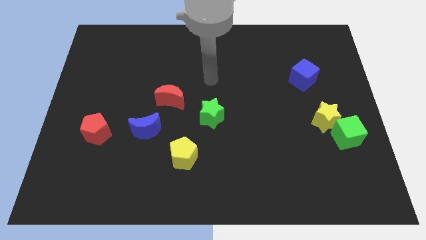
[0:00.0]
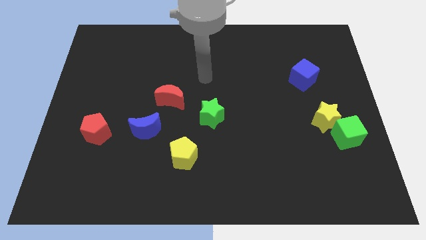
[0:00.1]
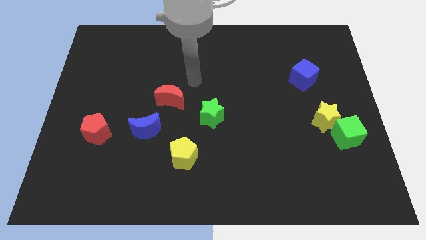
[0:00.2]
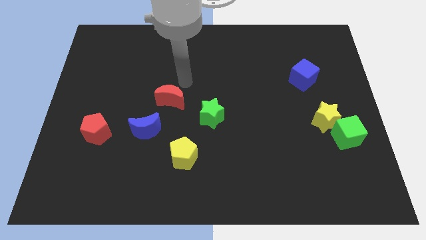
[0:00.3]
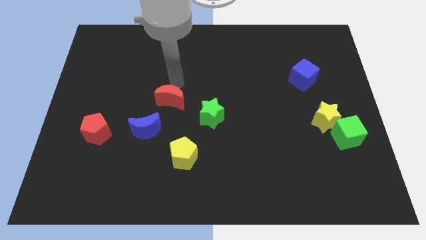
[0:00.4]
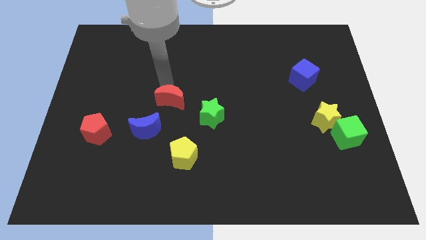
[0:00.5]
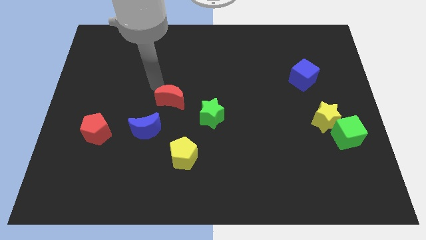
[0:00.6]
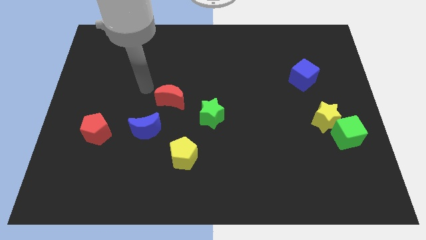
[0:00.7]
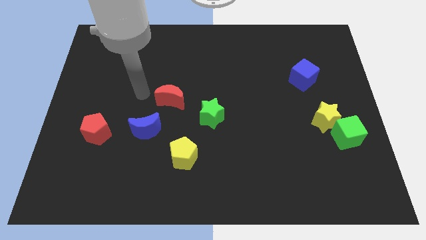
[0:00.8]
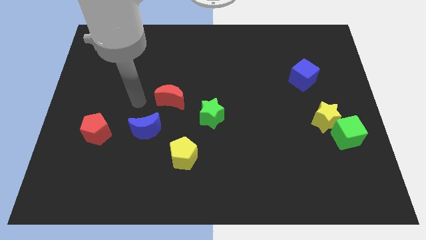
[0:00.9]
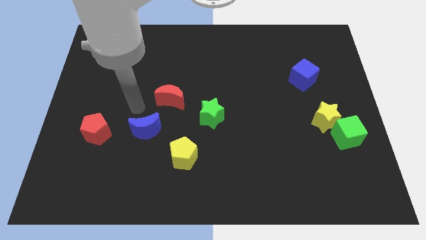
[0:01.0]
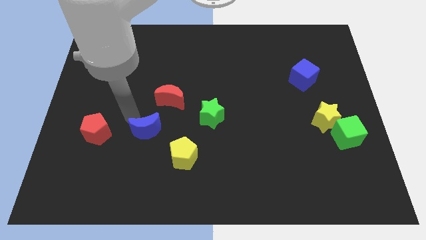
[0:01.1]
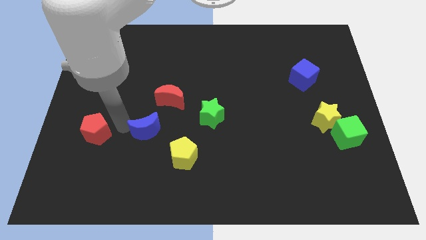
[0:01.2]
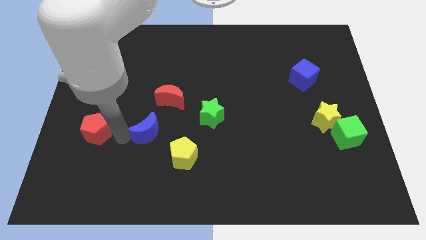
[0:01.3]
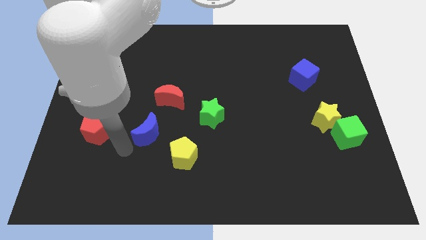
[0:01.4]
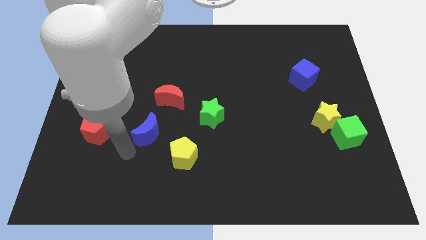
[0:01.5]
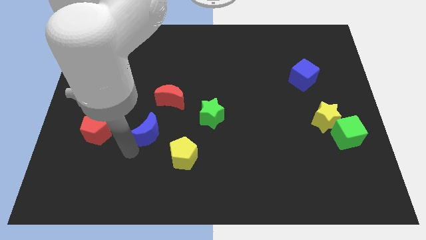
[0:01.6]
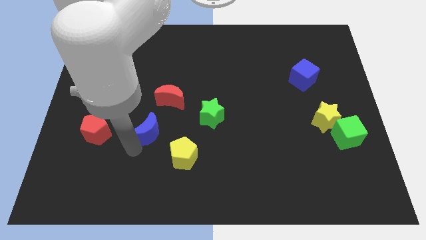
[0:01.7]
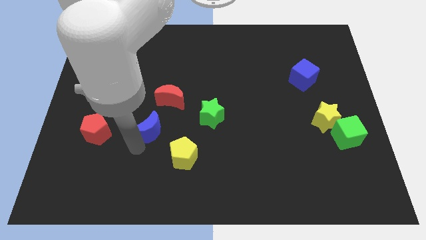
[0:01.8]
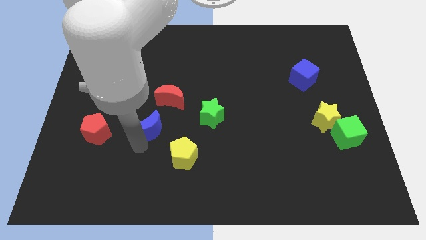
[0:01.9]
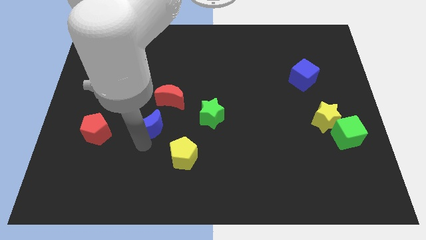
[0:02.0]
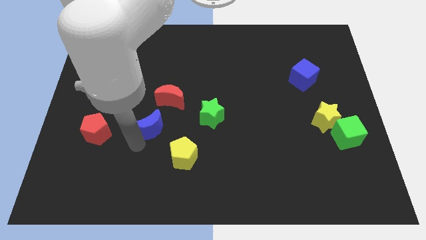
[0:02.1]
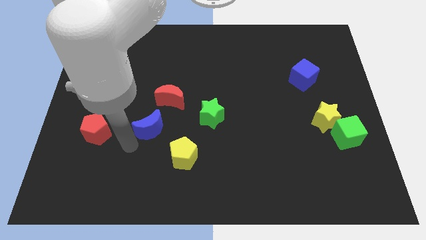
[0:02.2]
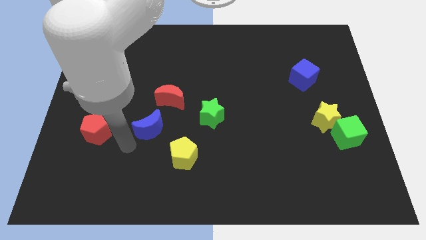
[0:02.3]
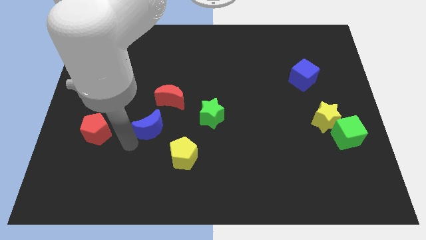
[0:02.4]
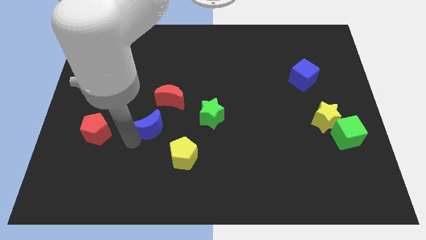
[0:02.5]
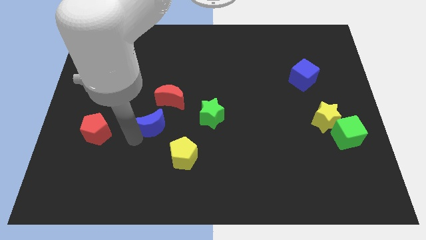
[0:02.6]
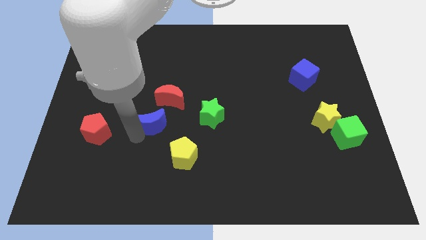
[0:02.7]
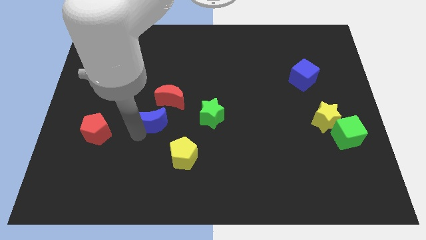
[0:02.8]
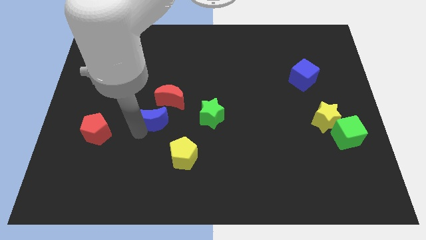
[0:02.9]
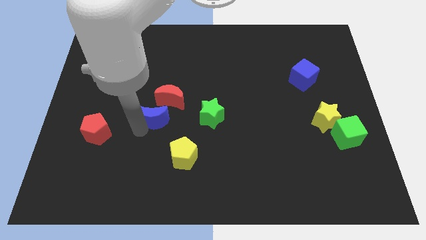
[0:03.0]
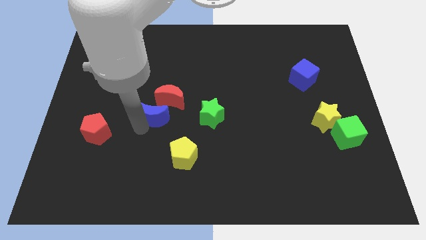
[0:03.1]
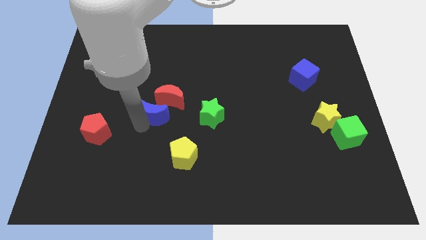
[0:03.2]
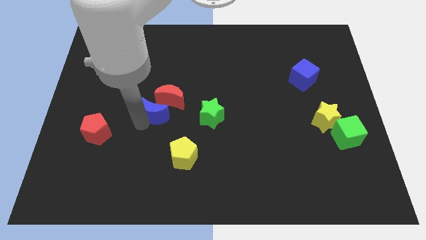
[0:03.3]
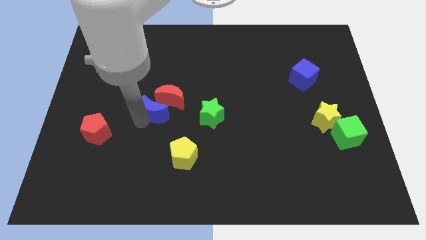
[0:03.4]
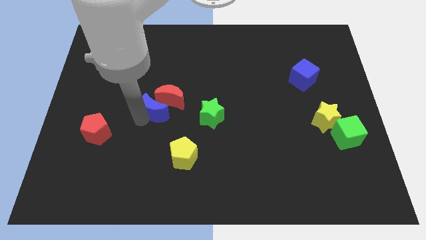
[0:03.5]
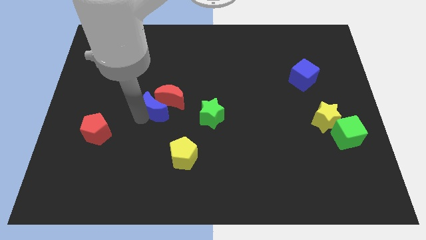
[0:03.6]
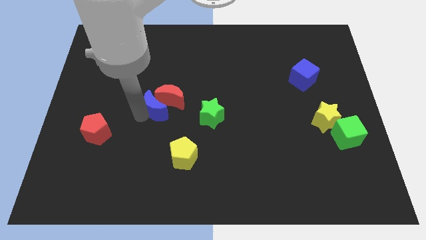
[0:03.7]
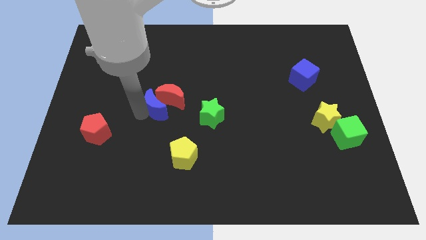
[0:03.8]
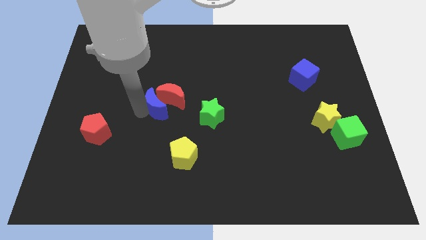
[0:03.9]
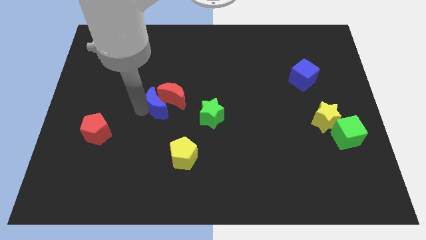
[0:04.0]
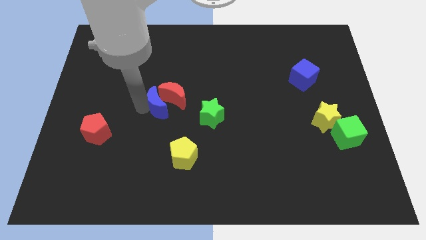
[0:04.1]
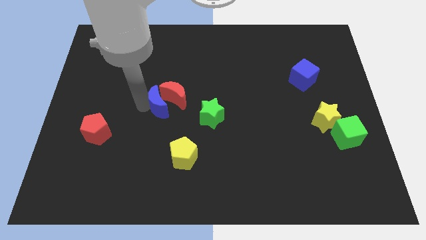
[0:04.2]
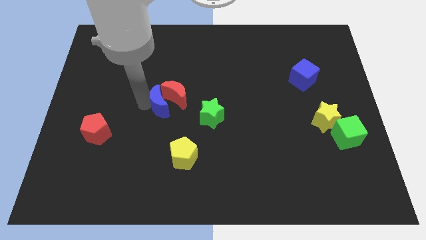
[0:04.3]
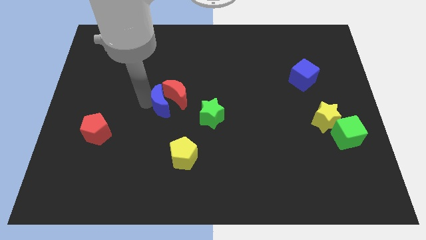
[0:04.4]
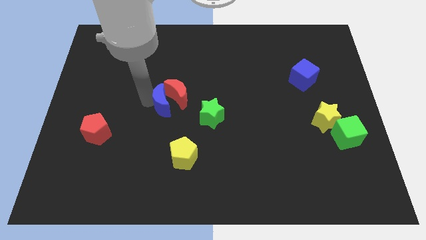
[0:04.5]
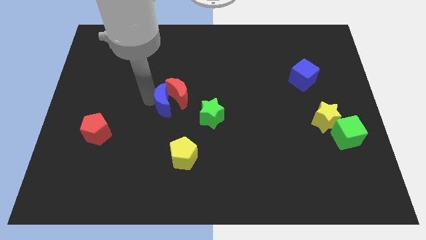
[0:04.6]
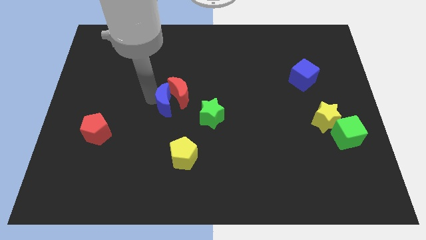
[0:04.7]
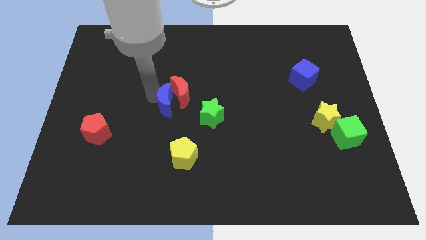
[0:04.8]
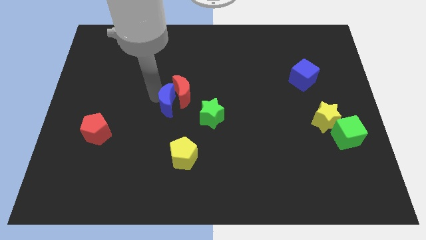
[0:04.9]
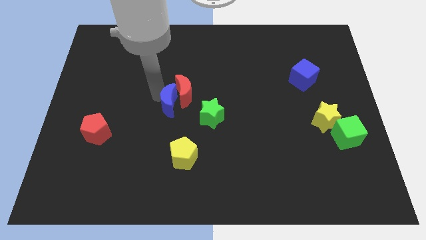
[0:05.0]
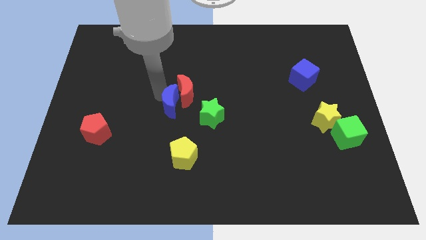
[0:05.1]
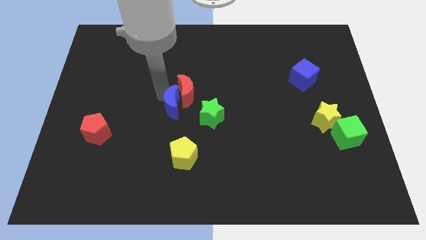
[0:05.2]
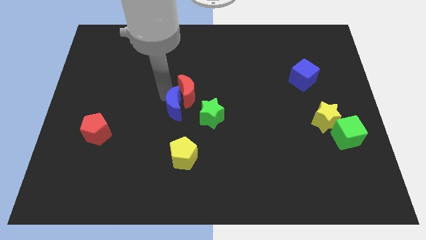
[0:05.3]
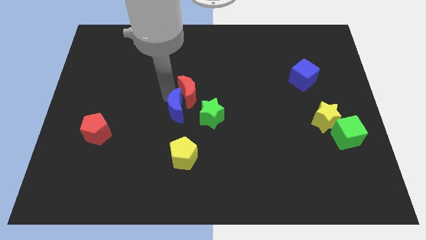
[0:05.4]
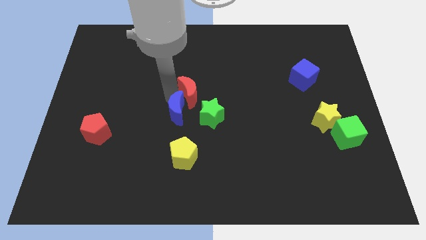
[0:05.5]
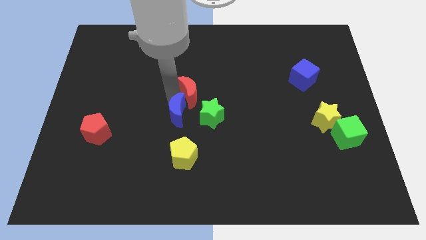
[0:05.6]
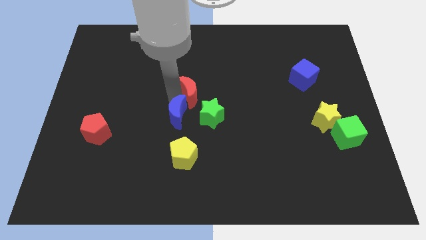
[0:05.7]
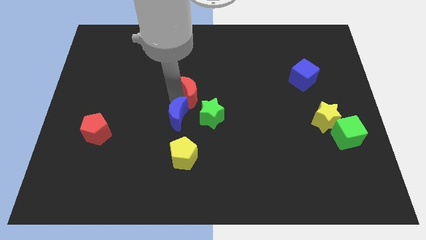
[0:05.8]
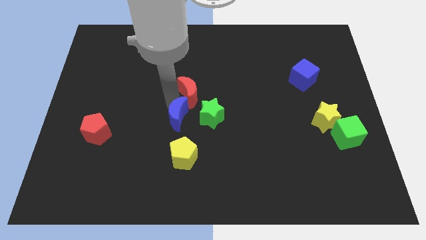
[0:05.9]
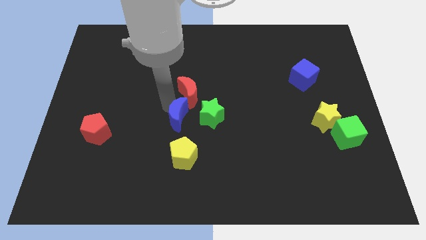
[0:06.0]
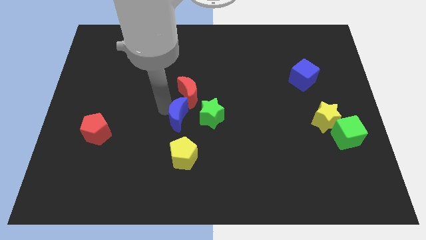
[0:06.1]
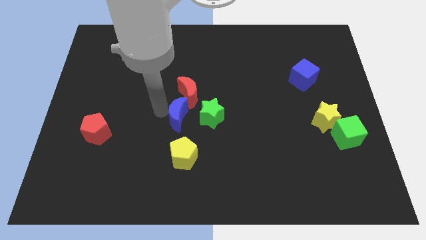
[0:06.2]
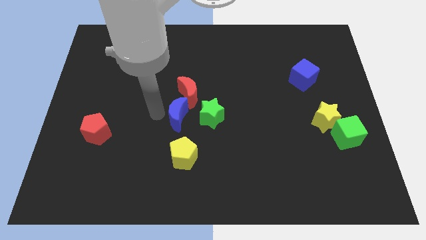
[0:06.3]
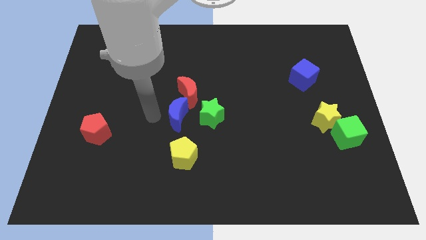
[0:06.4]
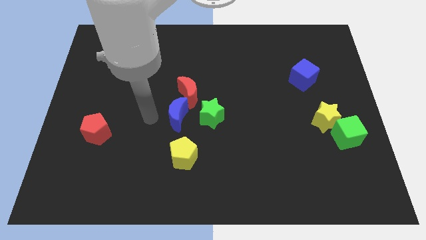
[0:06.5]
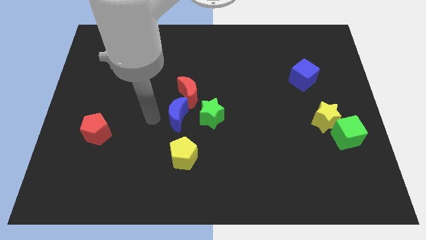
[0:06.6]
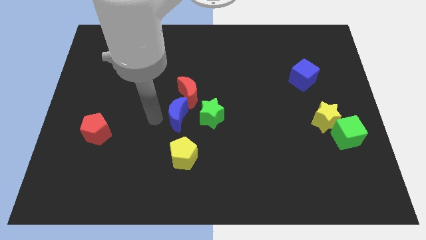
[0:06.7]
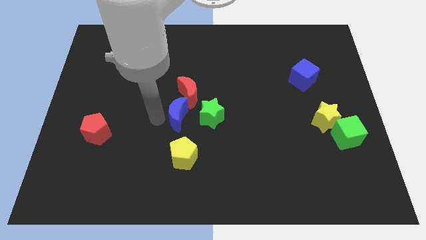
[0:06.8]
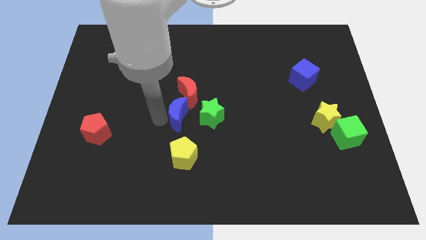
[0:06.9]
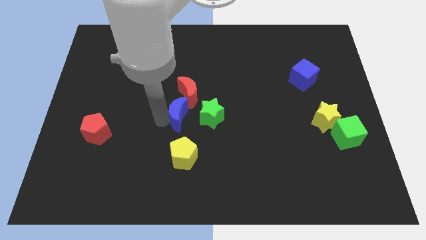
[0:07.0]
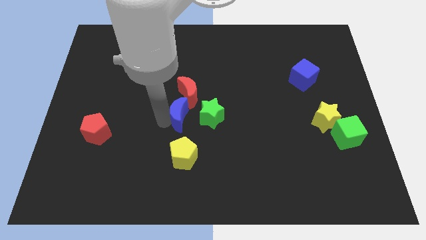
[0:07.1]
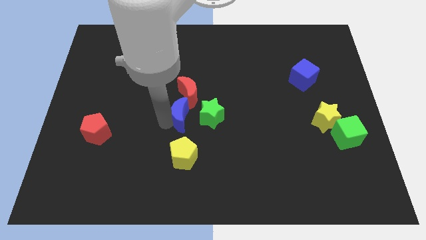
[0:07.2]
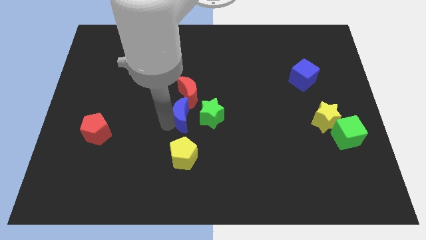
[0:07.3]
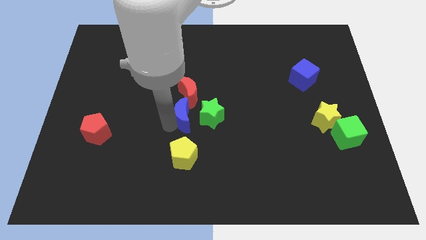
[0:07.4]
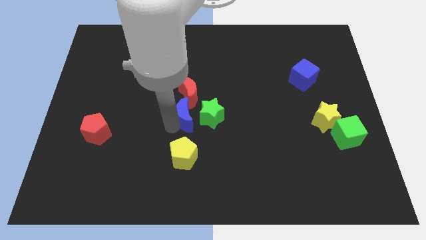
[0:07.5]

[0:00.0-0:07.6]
slide the blue moon to the green star
